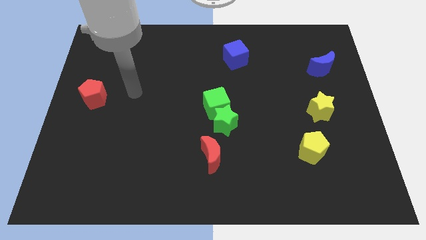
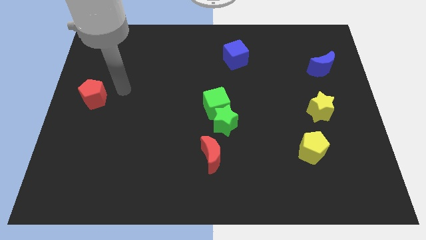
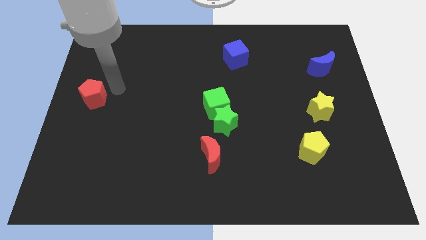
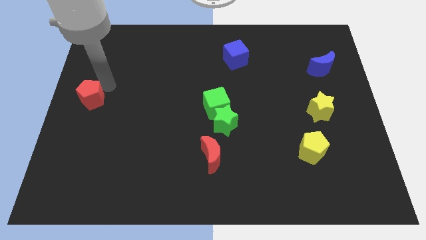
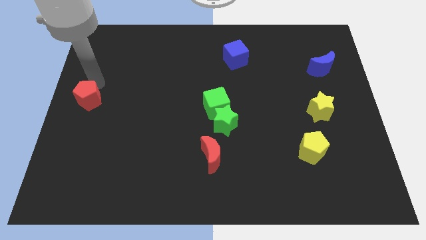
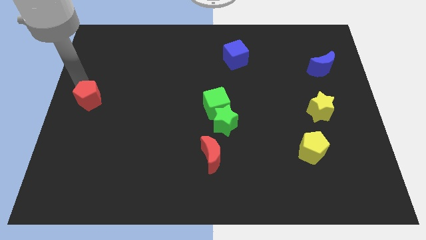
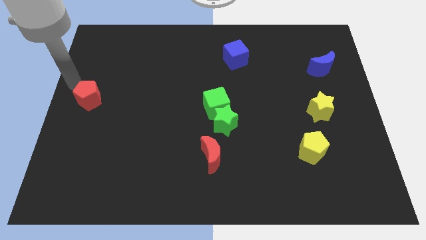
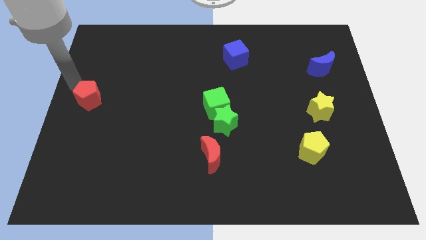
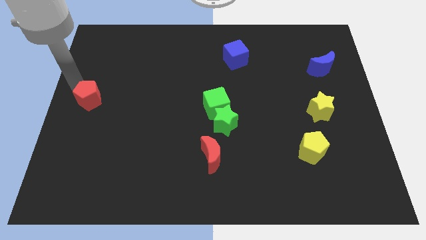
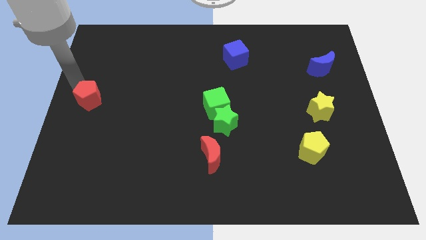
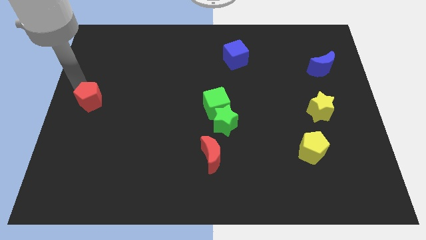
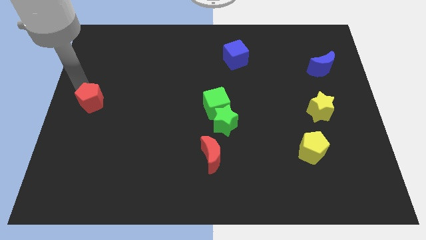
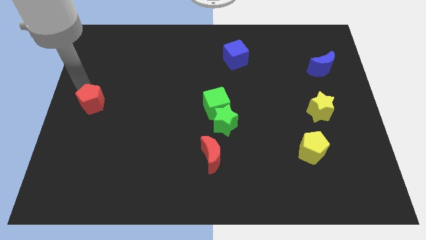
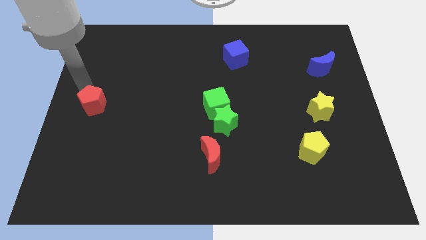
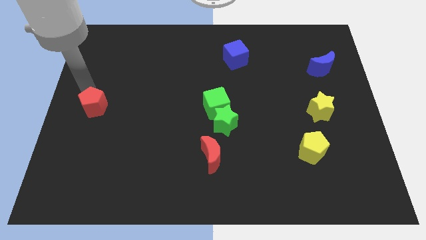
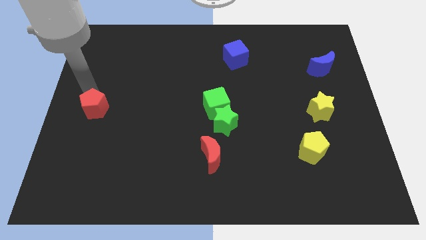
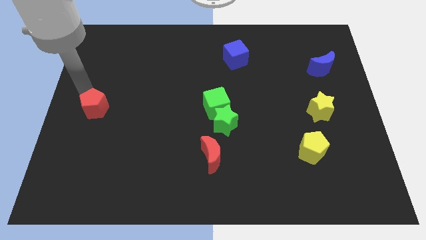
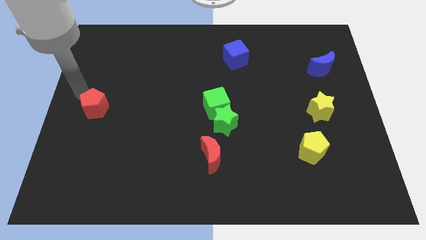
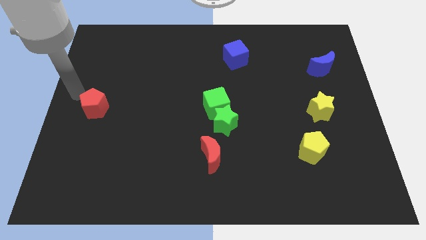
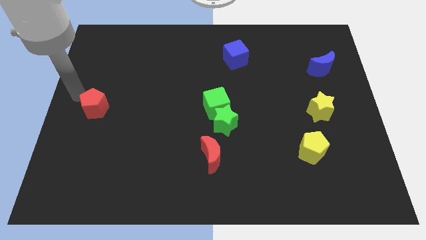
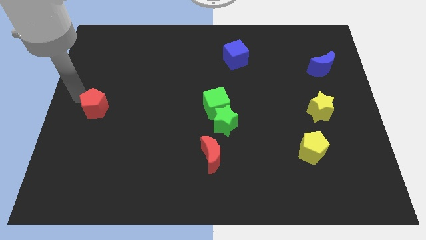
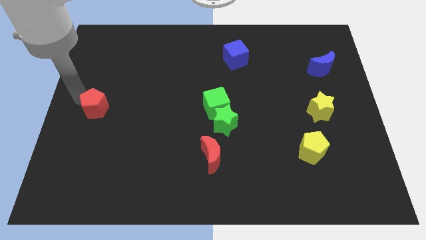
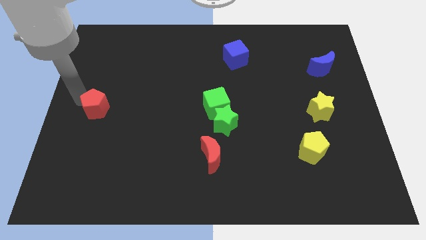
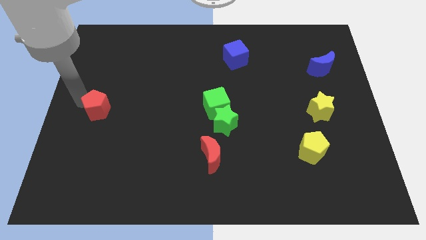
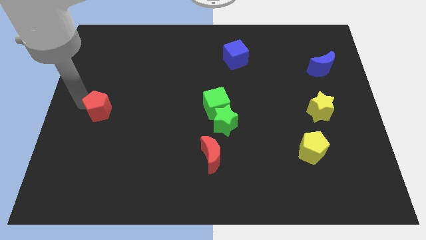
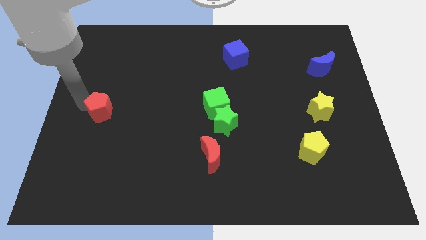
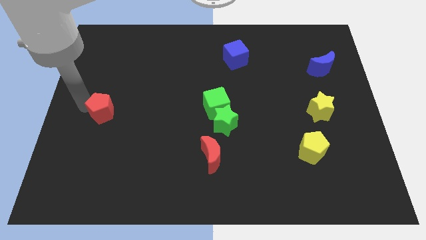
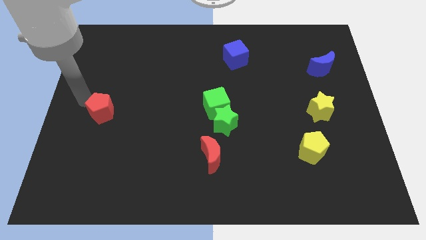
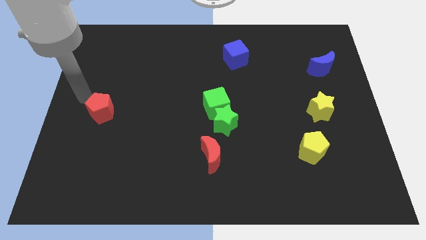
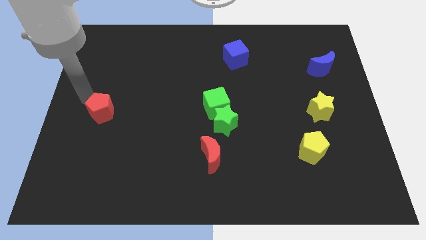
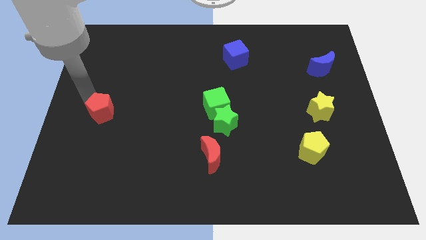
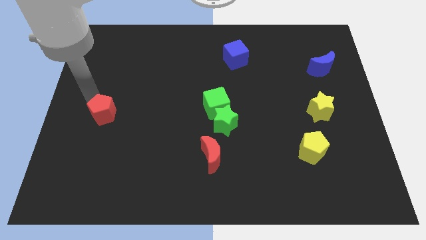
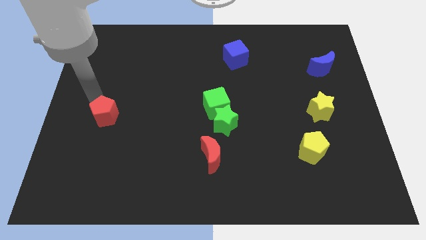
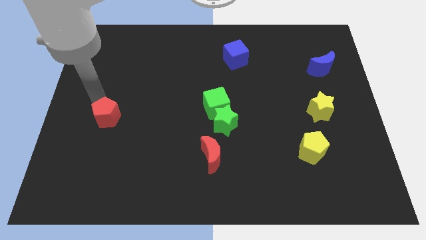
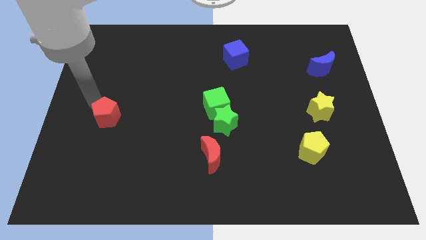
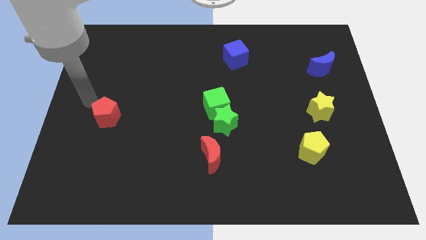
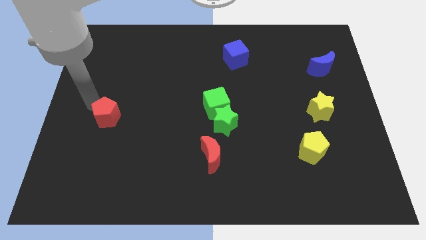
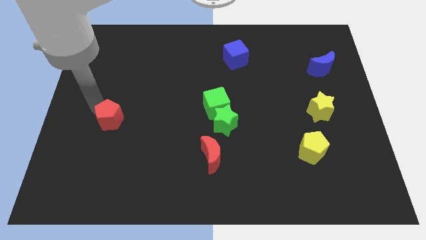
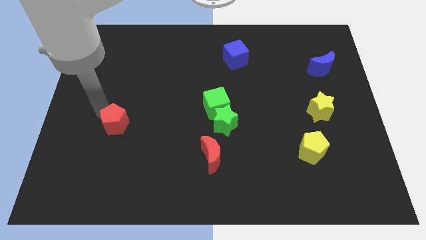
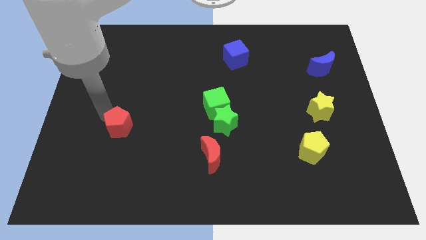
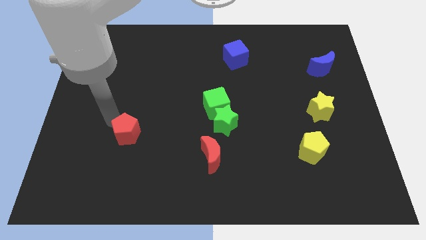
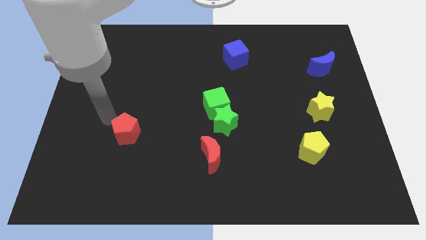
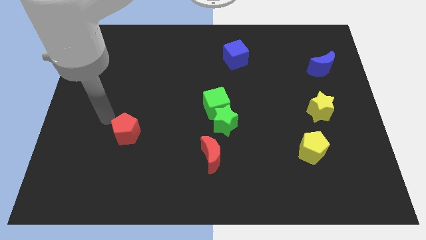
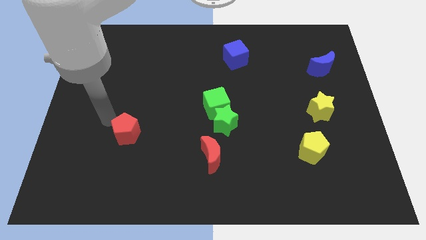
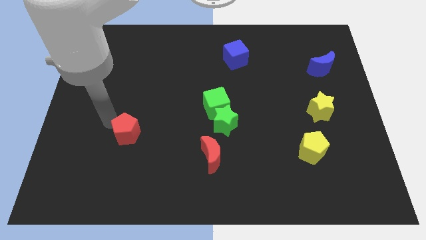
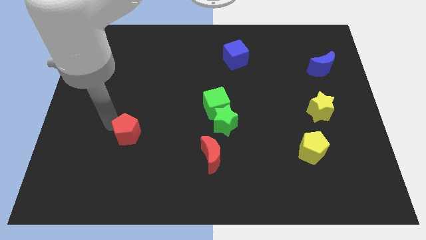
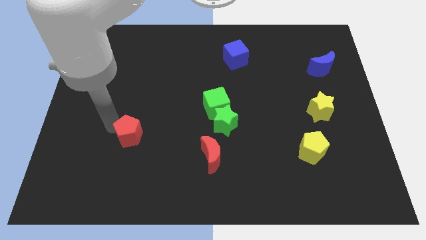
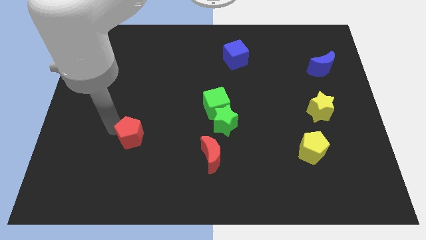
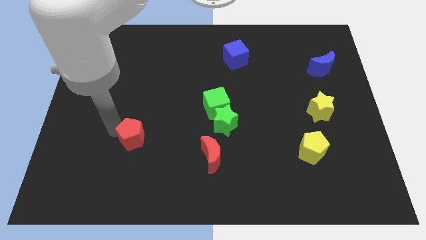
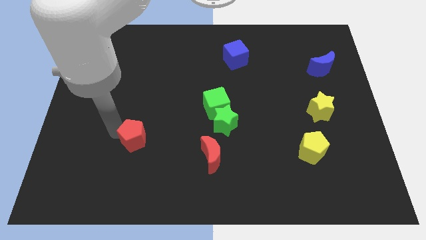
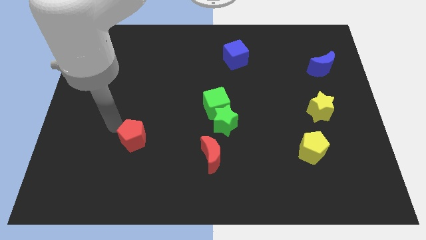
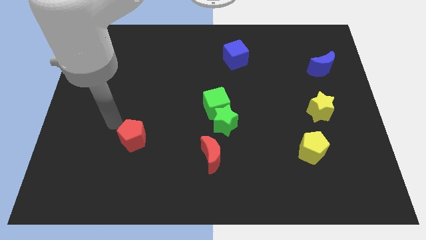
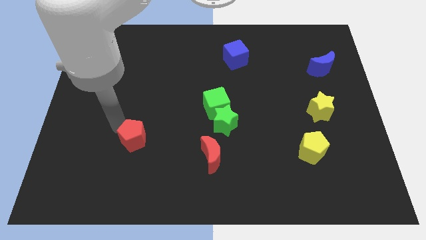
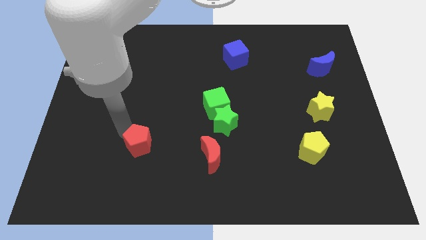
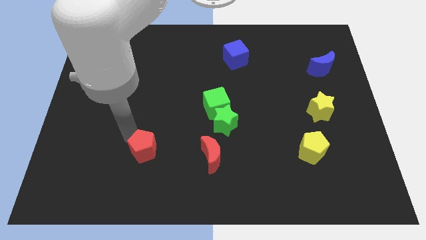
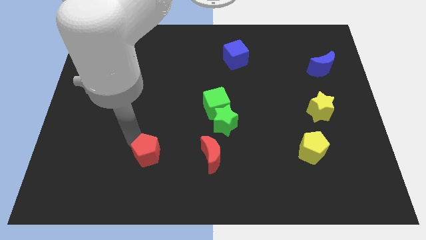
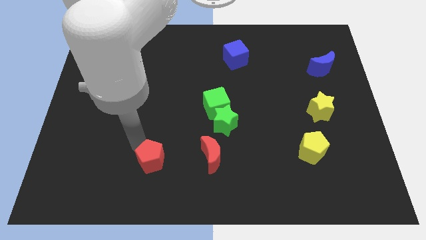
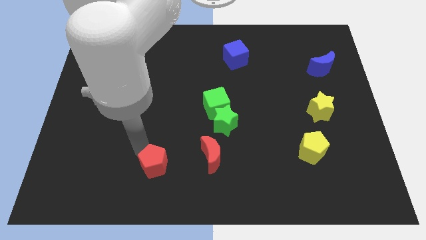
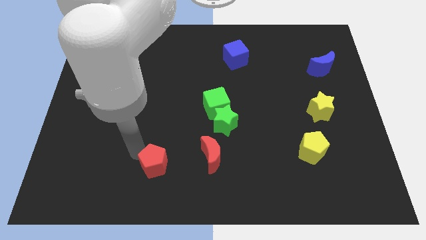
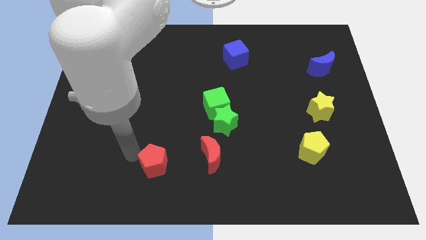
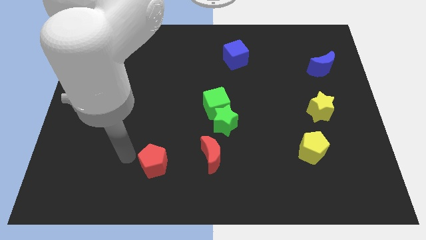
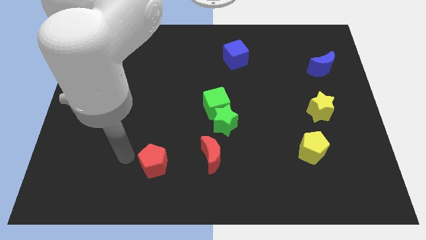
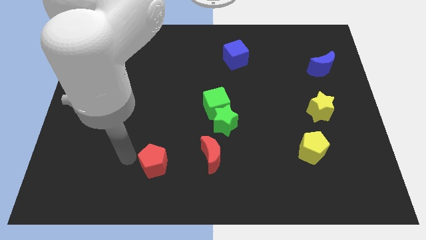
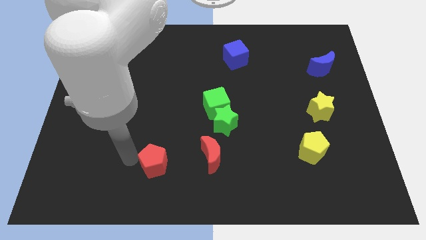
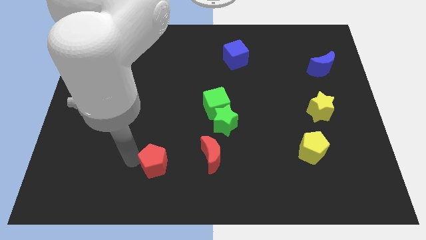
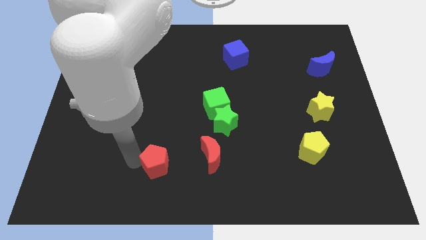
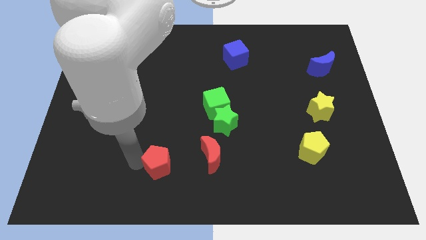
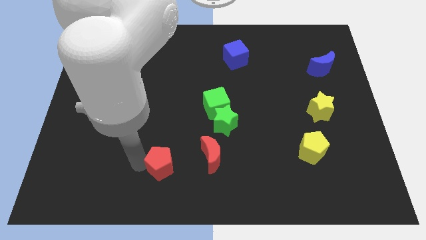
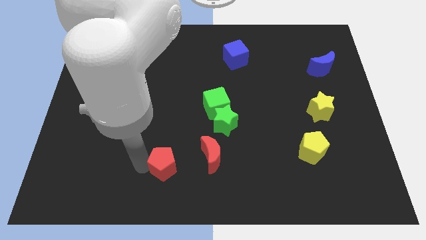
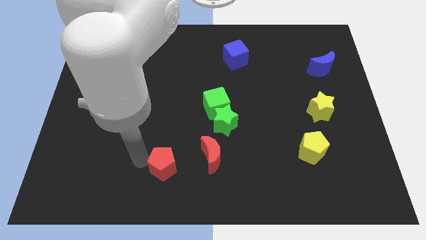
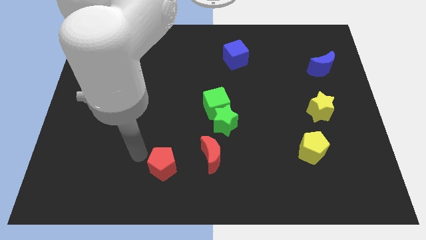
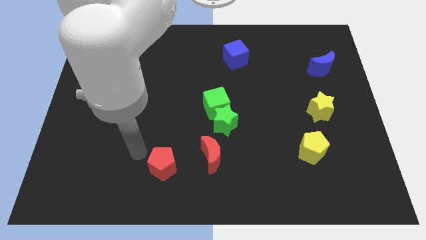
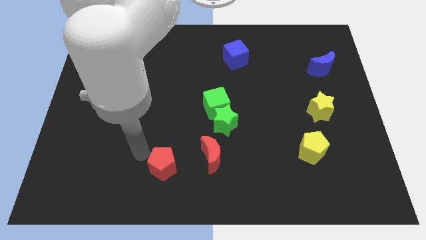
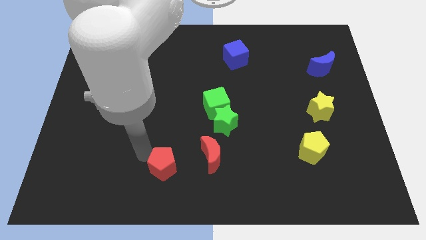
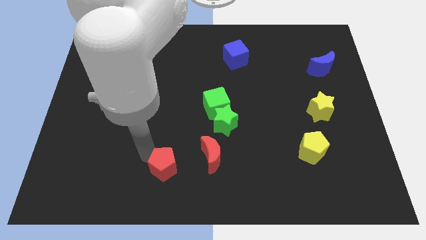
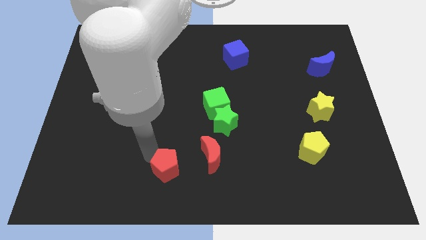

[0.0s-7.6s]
slide the red pentagon to the bottom left of the red moon
